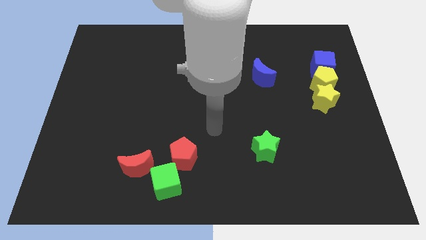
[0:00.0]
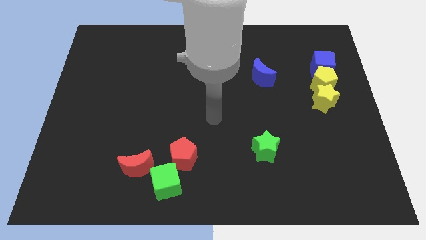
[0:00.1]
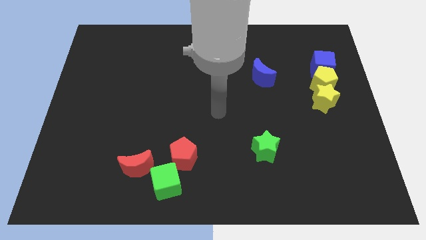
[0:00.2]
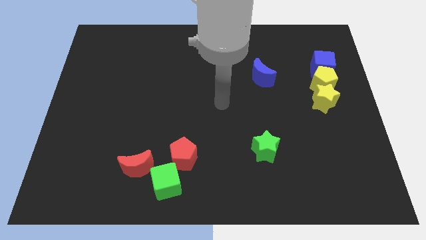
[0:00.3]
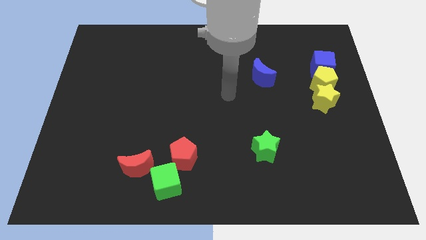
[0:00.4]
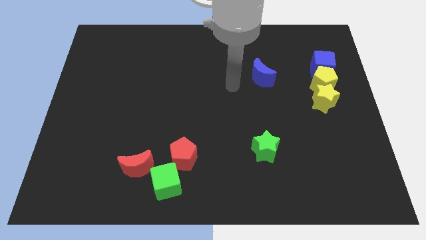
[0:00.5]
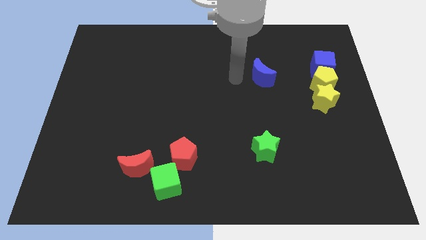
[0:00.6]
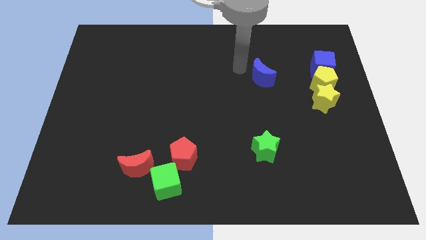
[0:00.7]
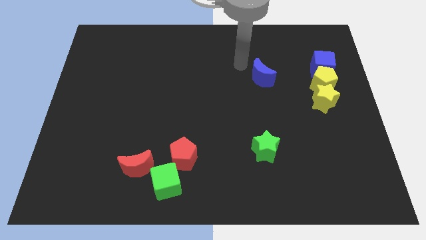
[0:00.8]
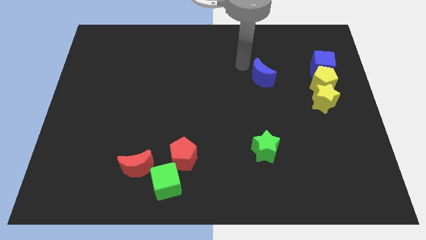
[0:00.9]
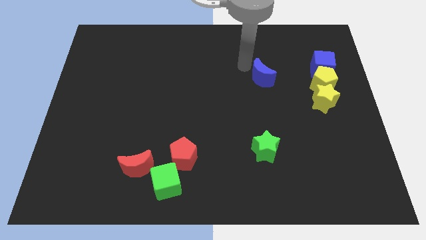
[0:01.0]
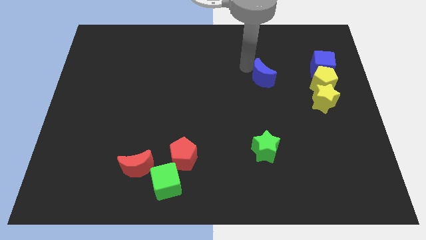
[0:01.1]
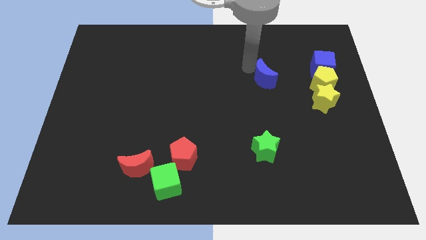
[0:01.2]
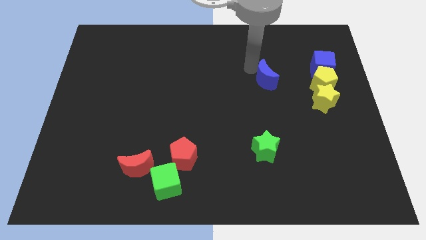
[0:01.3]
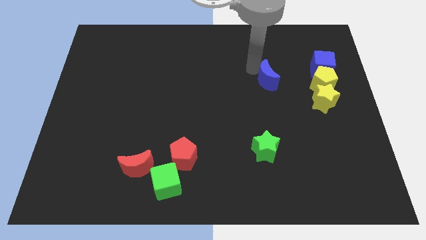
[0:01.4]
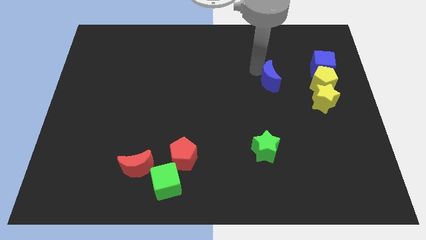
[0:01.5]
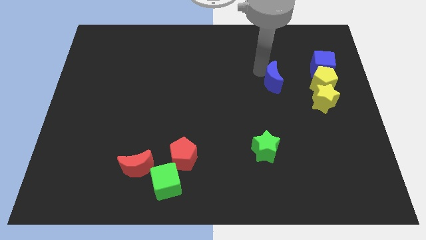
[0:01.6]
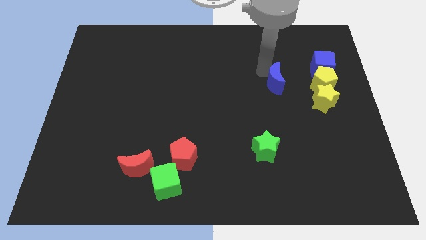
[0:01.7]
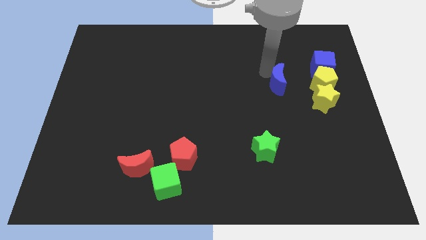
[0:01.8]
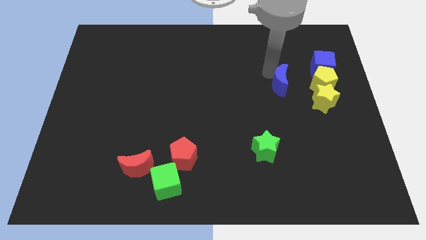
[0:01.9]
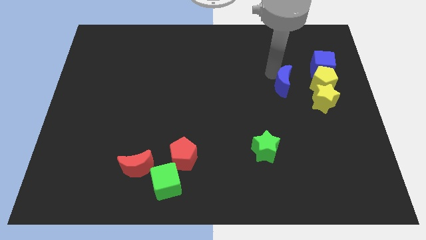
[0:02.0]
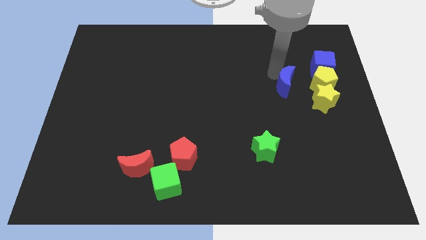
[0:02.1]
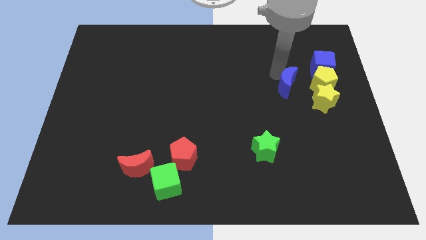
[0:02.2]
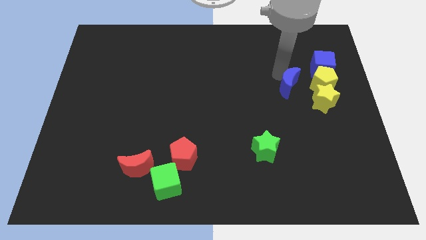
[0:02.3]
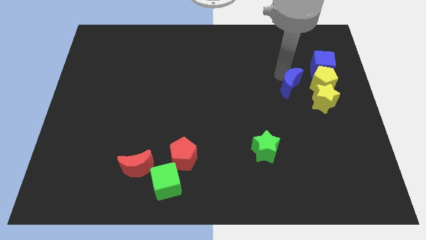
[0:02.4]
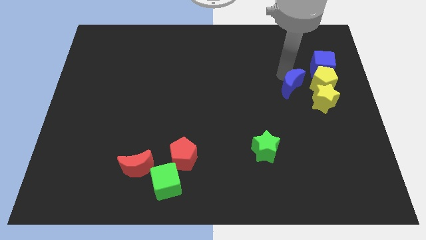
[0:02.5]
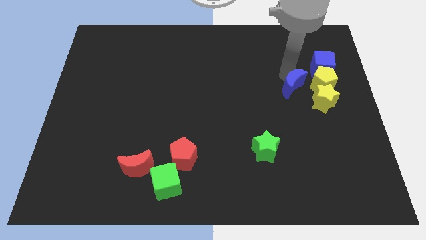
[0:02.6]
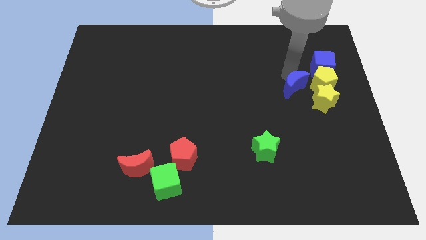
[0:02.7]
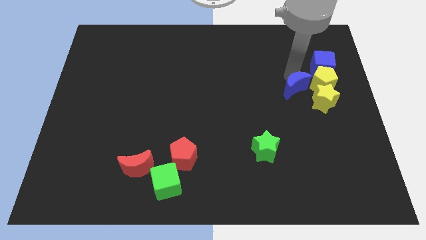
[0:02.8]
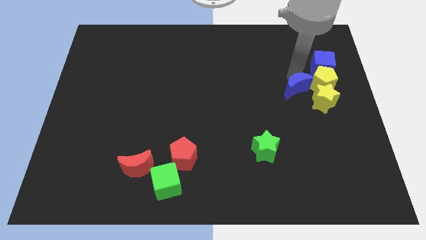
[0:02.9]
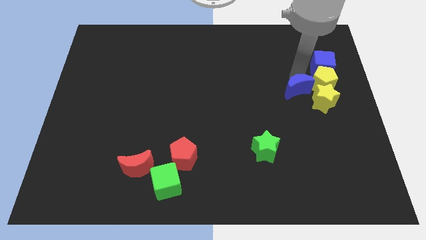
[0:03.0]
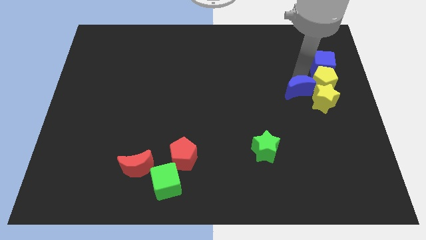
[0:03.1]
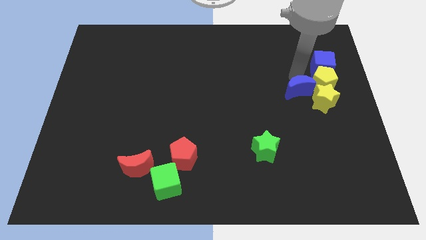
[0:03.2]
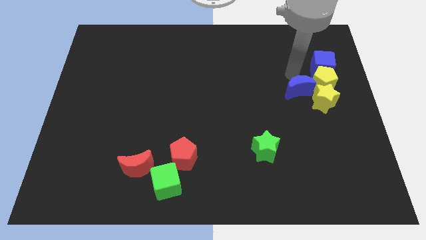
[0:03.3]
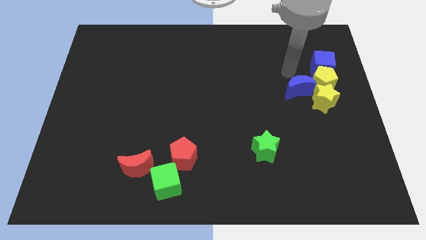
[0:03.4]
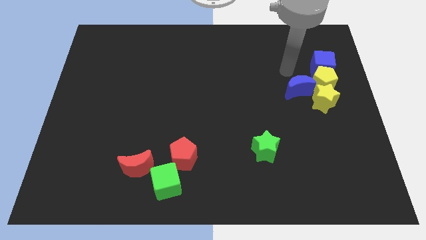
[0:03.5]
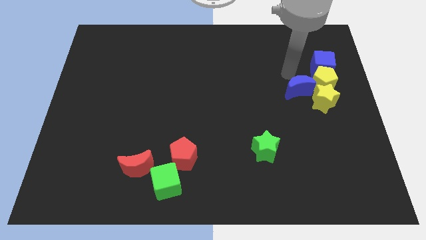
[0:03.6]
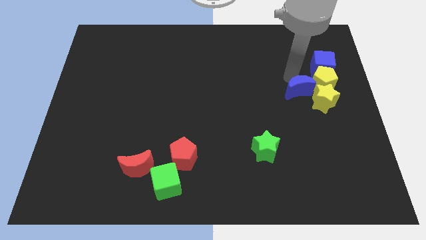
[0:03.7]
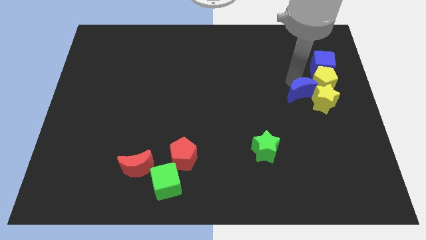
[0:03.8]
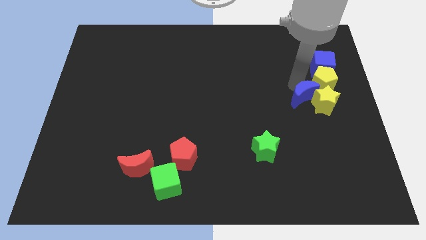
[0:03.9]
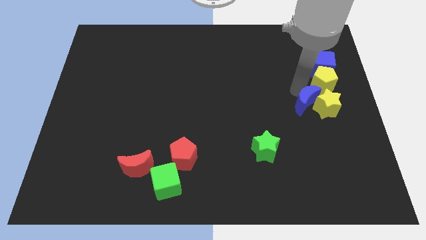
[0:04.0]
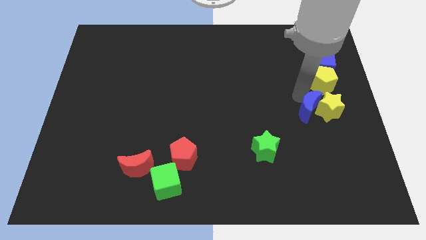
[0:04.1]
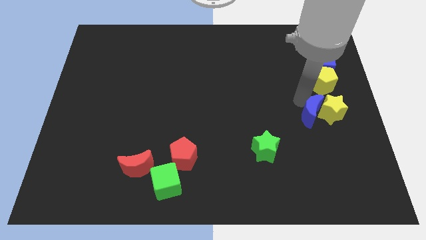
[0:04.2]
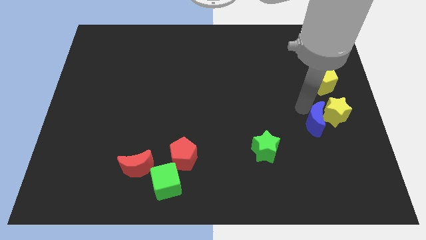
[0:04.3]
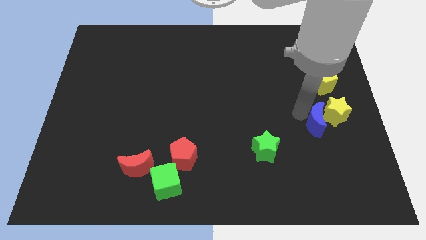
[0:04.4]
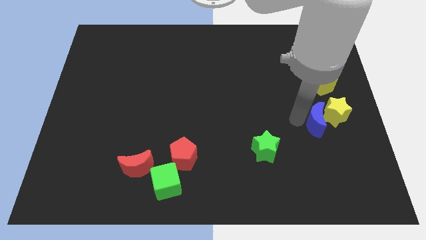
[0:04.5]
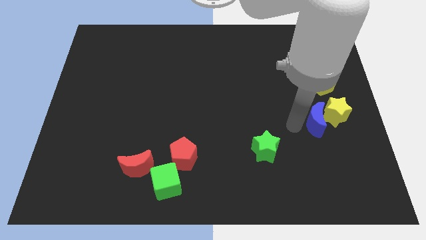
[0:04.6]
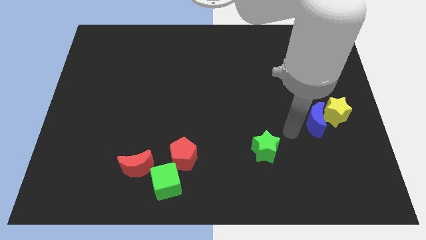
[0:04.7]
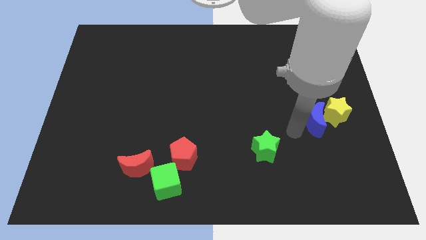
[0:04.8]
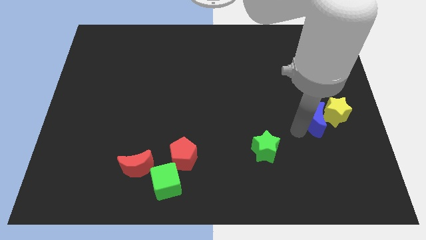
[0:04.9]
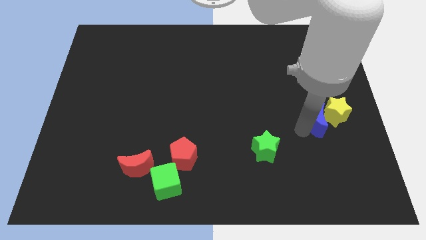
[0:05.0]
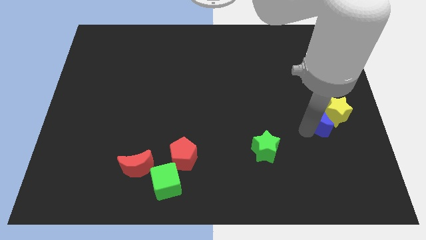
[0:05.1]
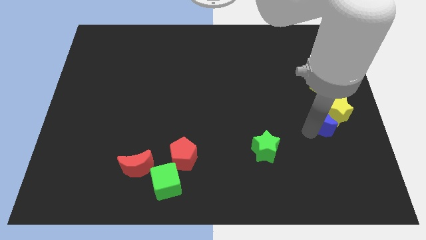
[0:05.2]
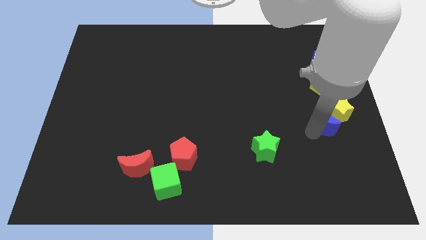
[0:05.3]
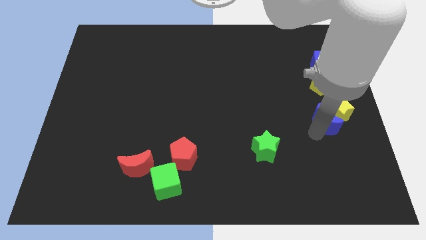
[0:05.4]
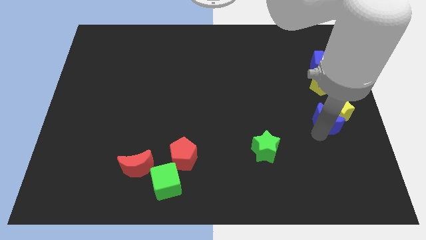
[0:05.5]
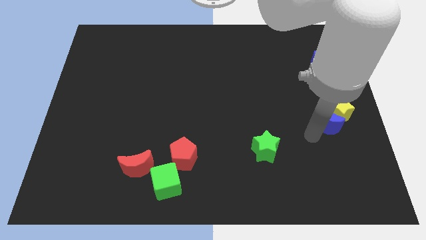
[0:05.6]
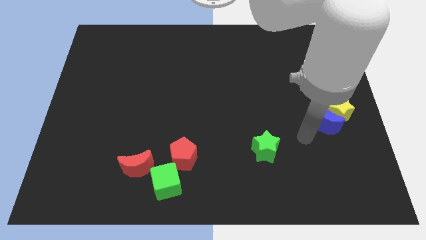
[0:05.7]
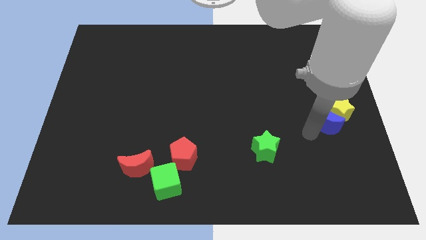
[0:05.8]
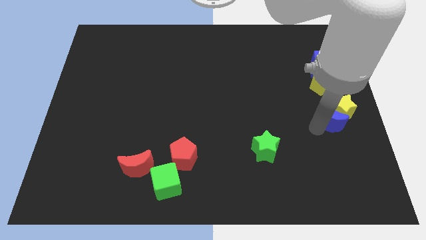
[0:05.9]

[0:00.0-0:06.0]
put the blue moon to the right side

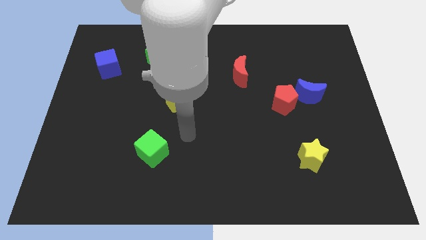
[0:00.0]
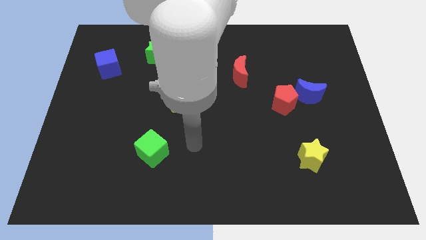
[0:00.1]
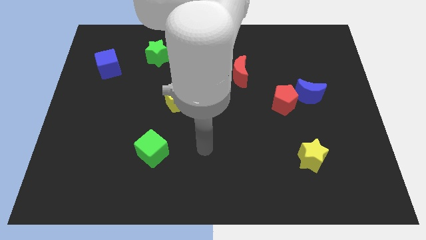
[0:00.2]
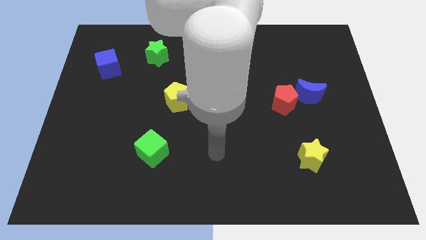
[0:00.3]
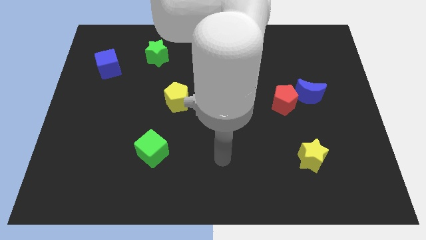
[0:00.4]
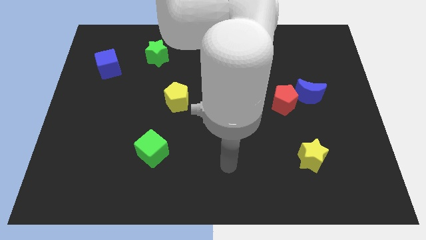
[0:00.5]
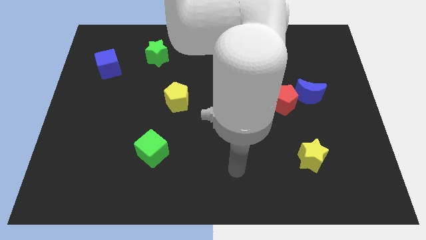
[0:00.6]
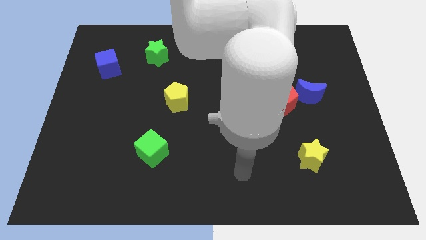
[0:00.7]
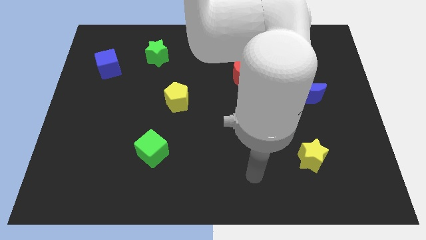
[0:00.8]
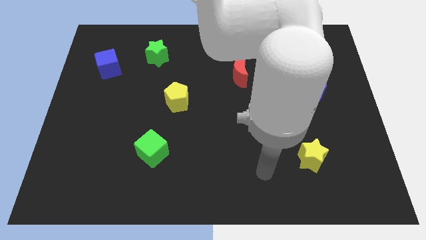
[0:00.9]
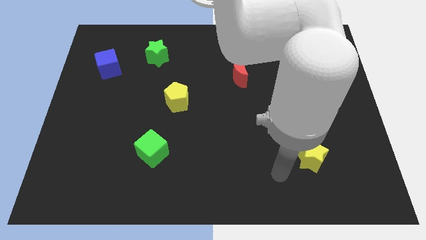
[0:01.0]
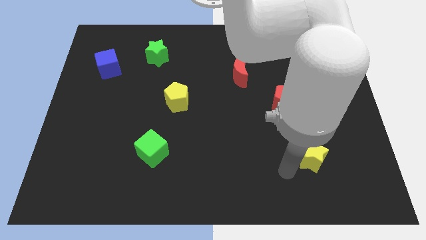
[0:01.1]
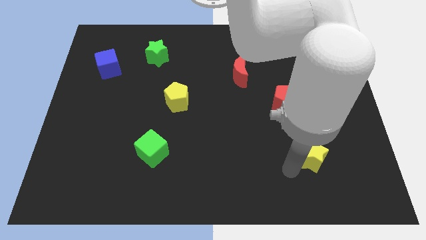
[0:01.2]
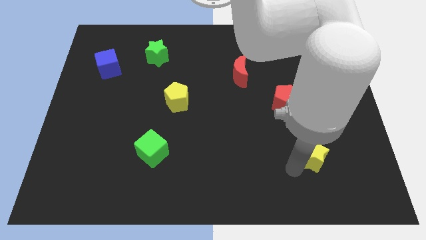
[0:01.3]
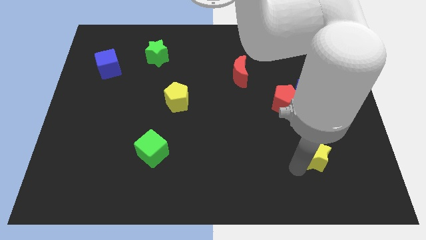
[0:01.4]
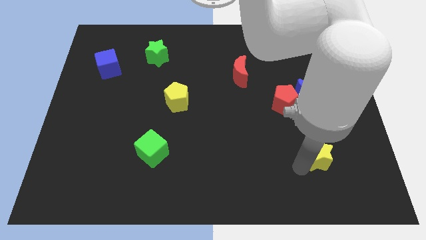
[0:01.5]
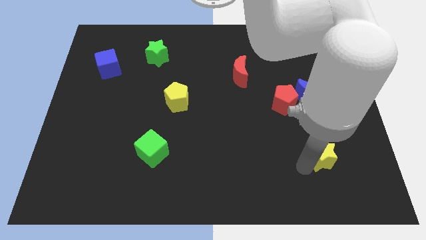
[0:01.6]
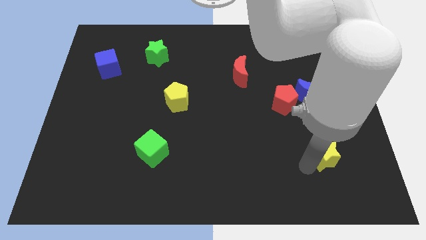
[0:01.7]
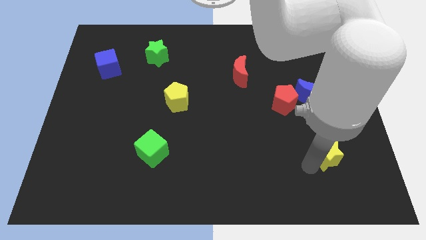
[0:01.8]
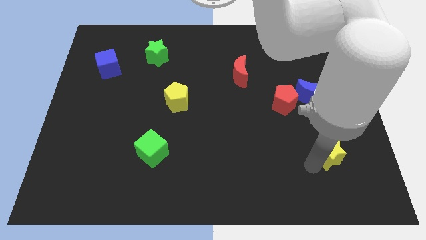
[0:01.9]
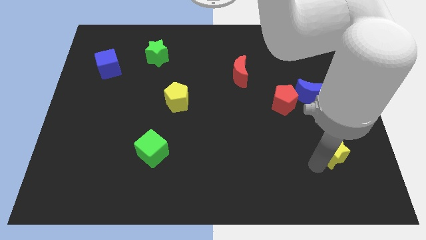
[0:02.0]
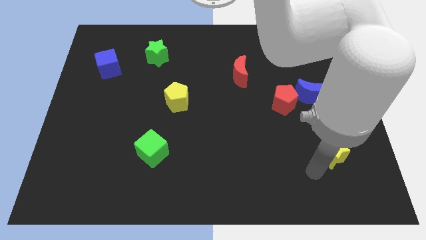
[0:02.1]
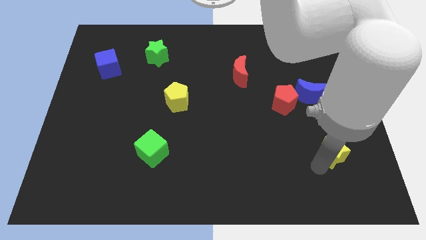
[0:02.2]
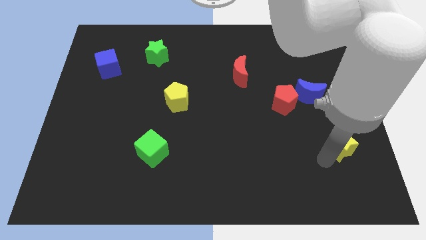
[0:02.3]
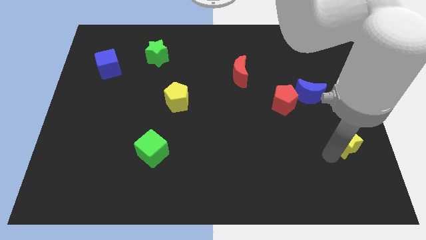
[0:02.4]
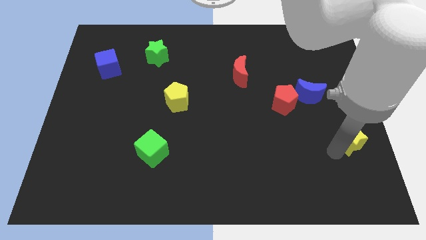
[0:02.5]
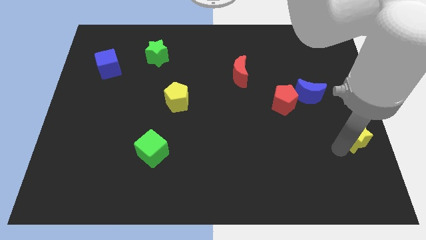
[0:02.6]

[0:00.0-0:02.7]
put the yellow star to the right side of the board
